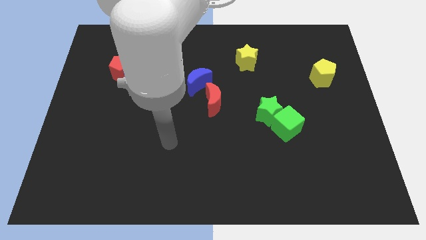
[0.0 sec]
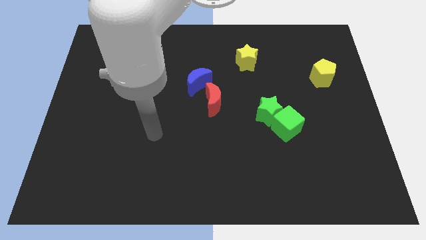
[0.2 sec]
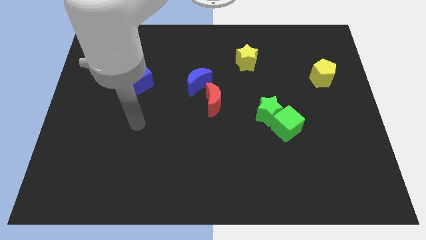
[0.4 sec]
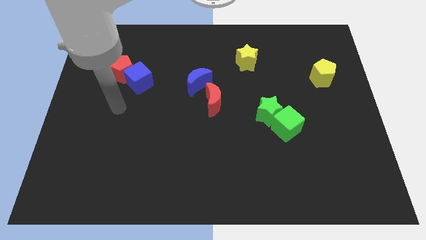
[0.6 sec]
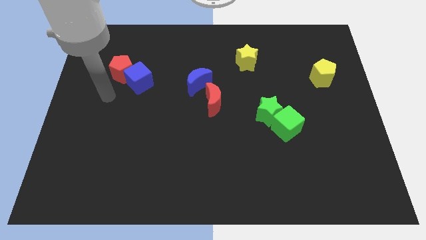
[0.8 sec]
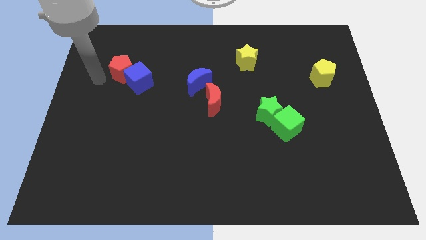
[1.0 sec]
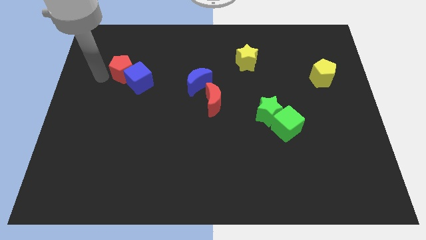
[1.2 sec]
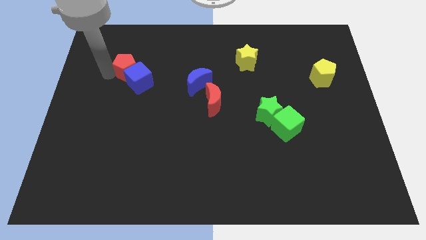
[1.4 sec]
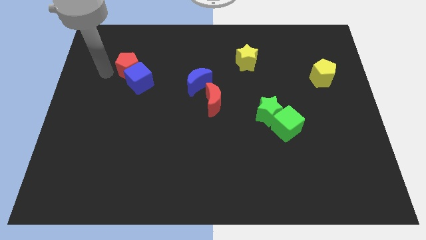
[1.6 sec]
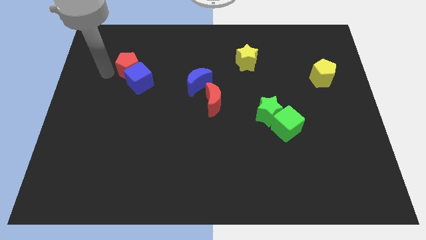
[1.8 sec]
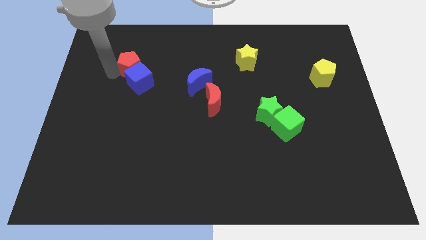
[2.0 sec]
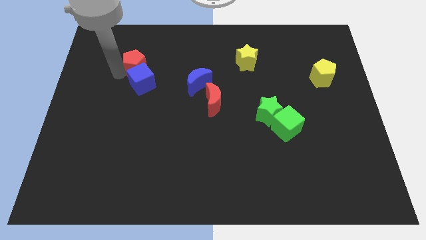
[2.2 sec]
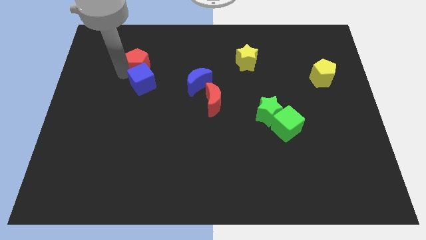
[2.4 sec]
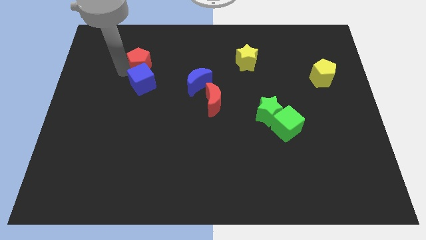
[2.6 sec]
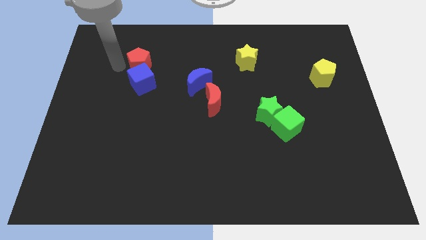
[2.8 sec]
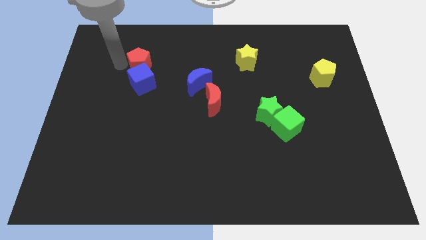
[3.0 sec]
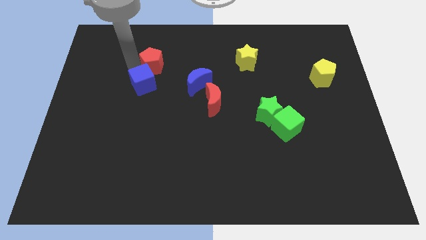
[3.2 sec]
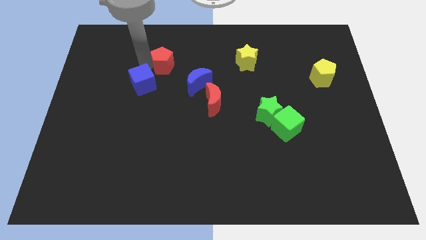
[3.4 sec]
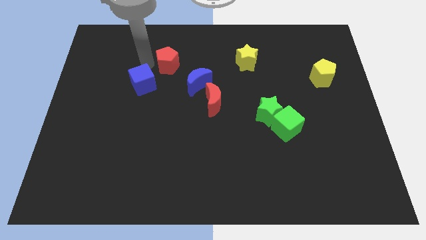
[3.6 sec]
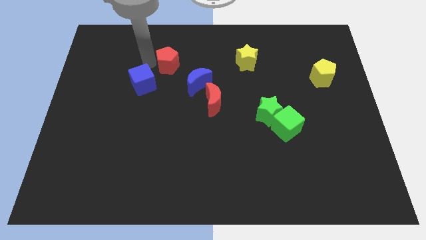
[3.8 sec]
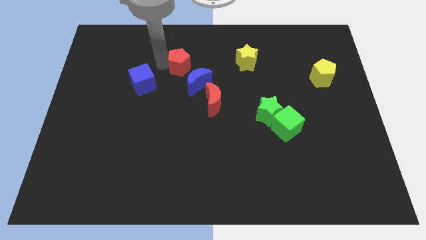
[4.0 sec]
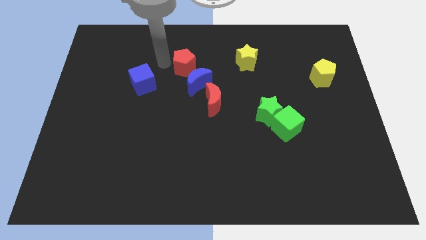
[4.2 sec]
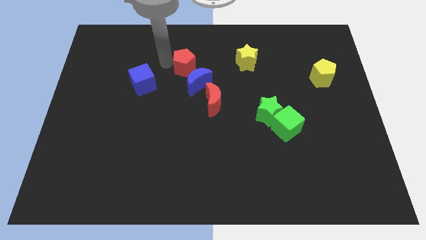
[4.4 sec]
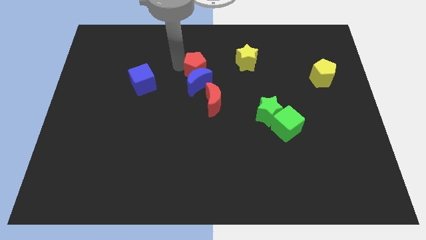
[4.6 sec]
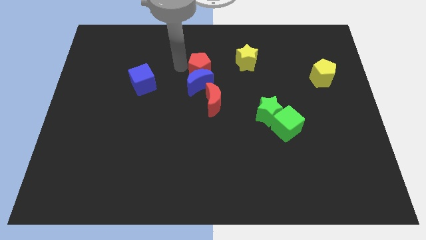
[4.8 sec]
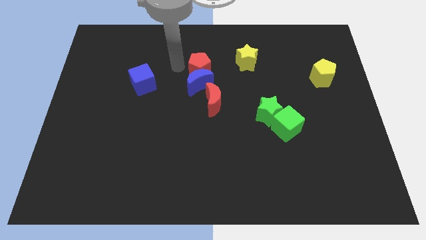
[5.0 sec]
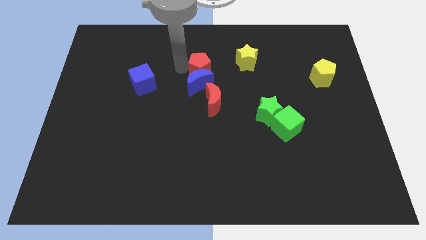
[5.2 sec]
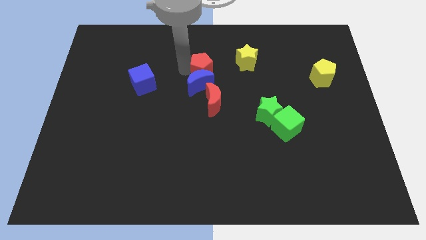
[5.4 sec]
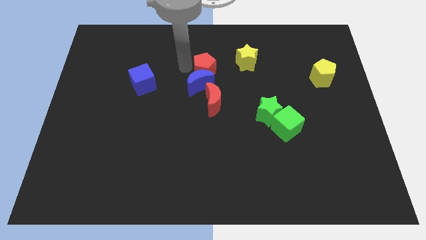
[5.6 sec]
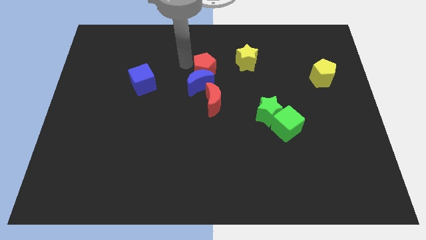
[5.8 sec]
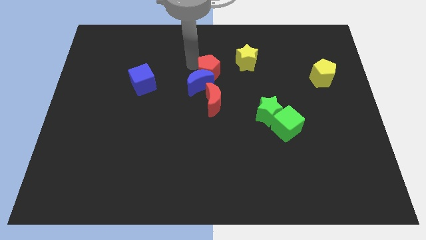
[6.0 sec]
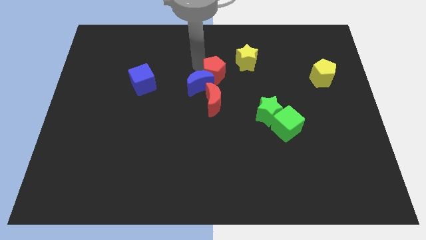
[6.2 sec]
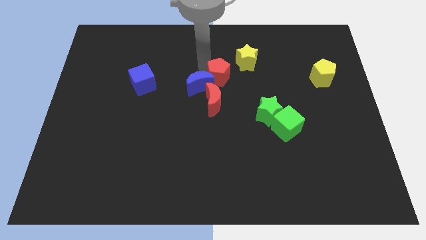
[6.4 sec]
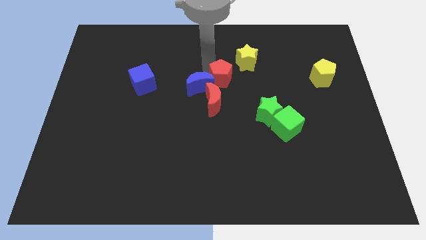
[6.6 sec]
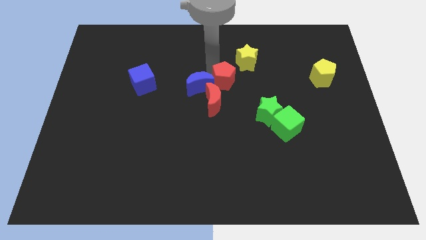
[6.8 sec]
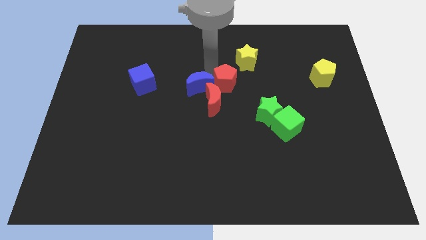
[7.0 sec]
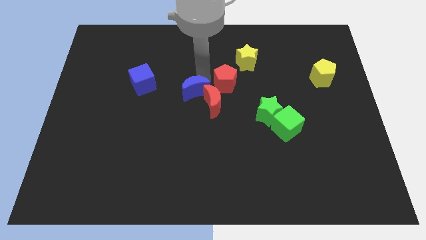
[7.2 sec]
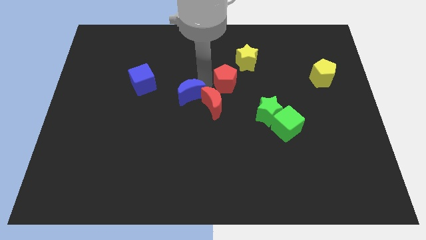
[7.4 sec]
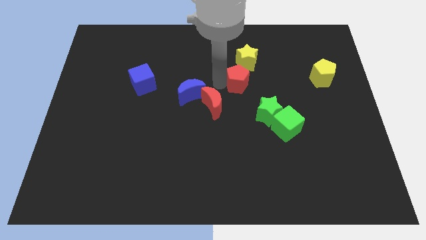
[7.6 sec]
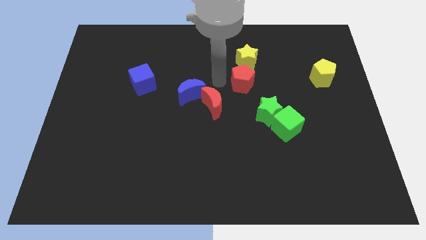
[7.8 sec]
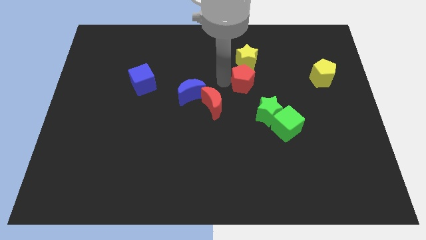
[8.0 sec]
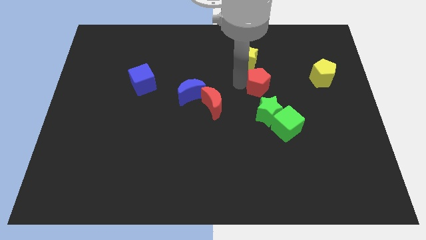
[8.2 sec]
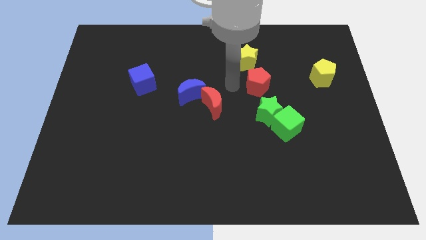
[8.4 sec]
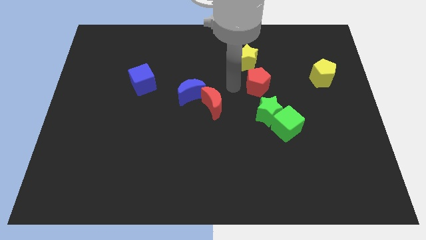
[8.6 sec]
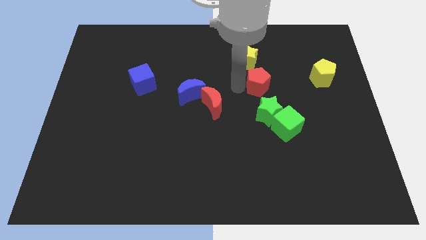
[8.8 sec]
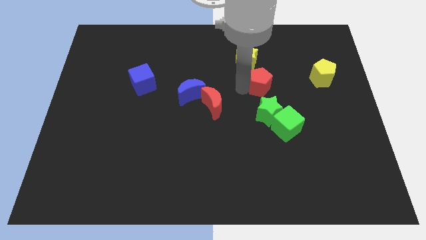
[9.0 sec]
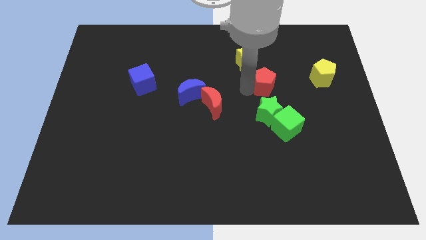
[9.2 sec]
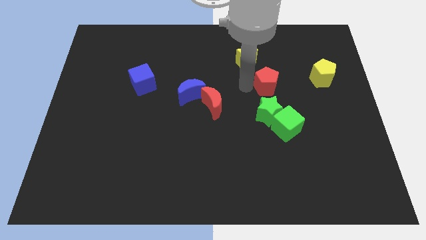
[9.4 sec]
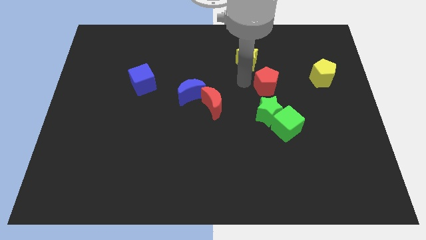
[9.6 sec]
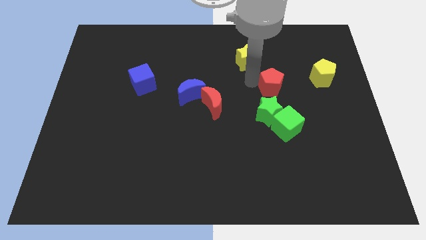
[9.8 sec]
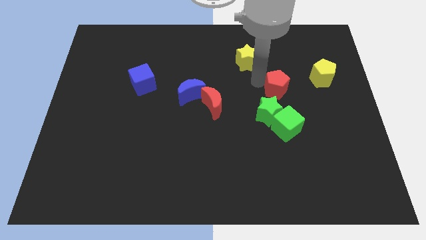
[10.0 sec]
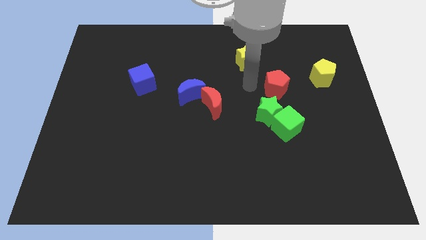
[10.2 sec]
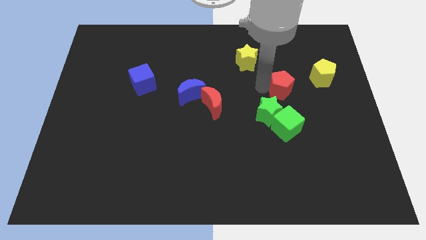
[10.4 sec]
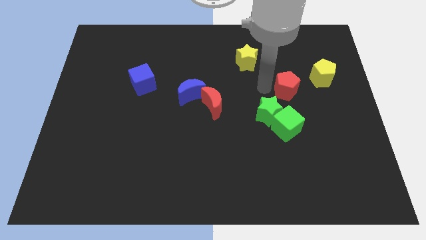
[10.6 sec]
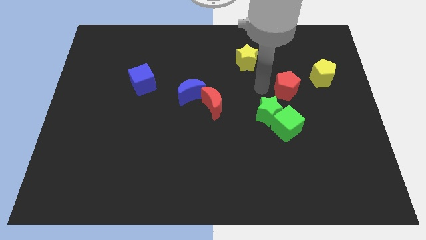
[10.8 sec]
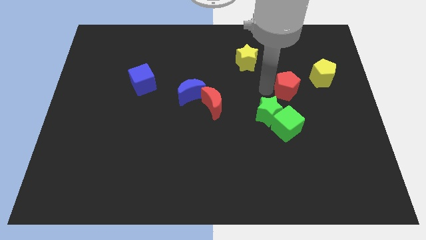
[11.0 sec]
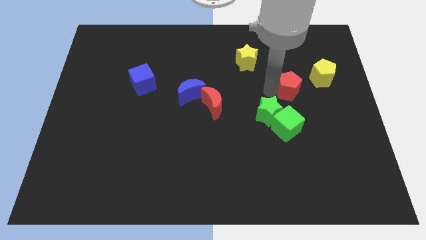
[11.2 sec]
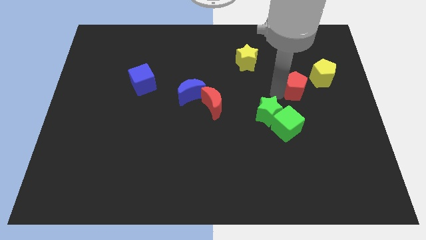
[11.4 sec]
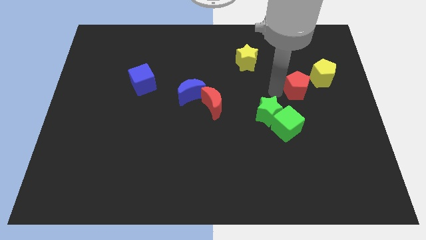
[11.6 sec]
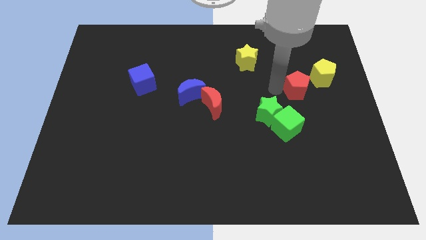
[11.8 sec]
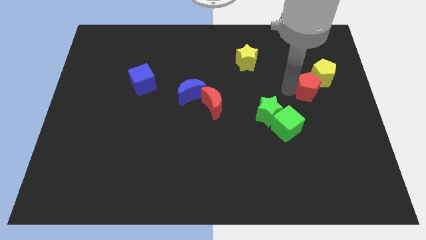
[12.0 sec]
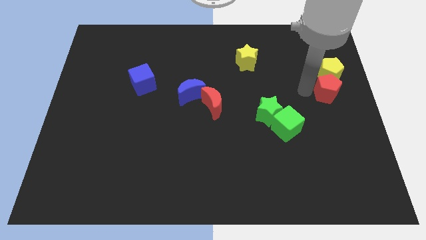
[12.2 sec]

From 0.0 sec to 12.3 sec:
push the red pentagon to the right side of the board

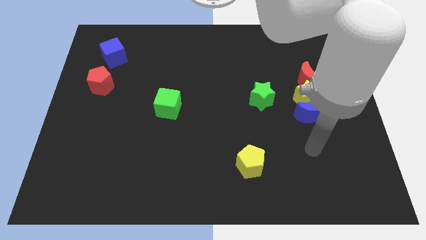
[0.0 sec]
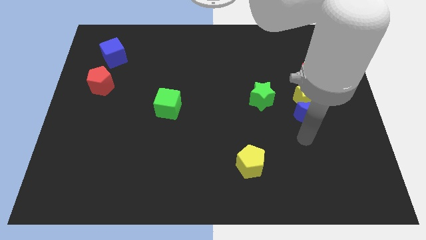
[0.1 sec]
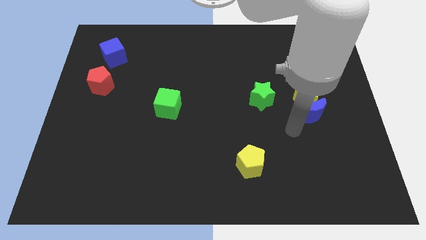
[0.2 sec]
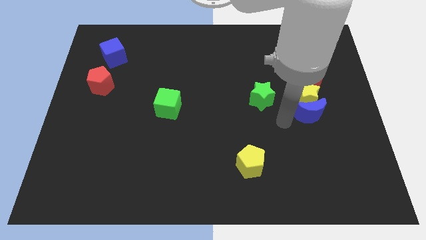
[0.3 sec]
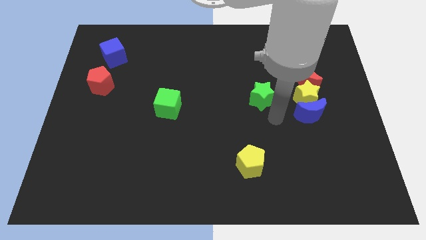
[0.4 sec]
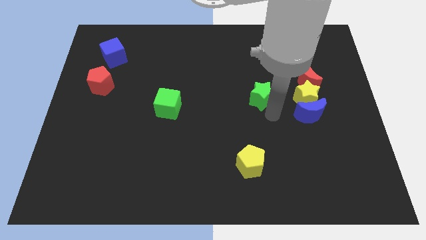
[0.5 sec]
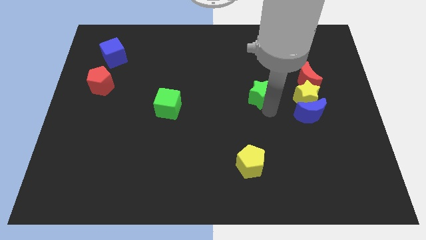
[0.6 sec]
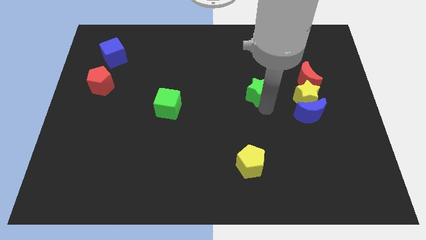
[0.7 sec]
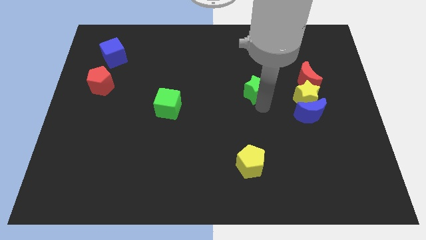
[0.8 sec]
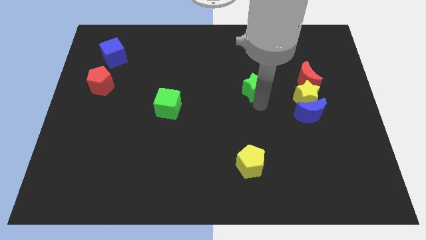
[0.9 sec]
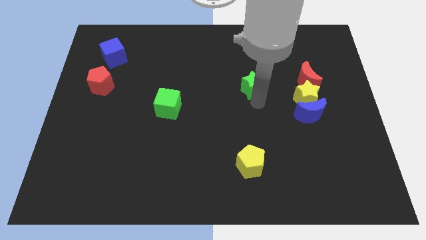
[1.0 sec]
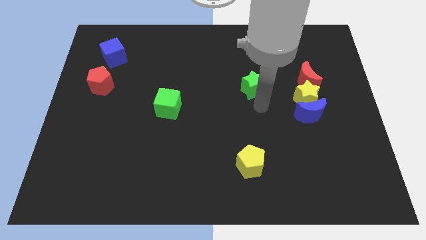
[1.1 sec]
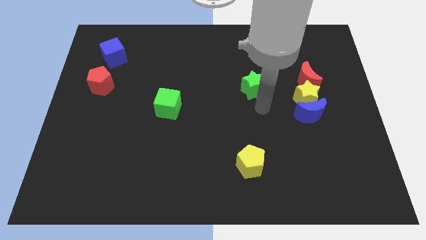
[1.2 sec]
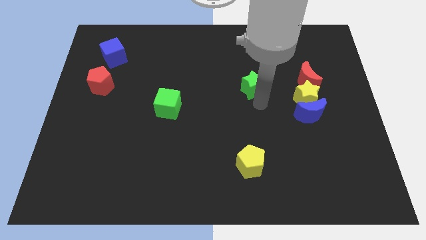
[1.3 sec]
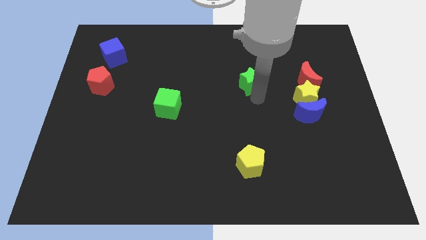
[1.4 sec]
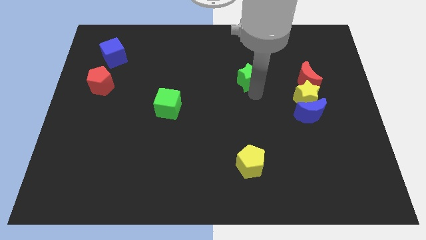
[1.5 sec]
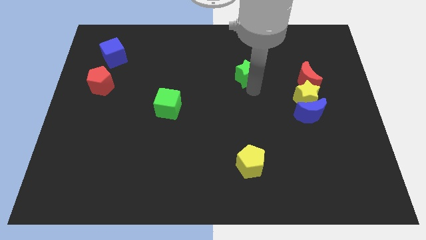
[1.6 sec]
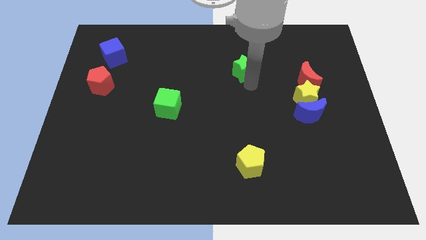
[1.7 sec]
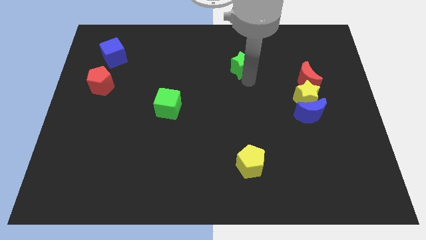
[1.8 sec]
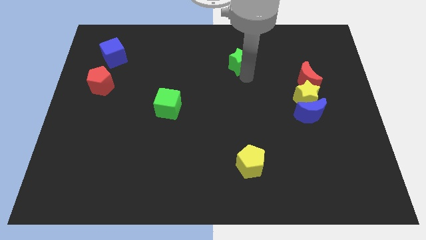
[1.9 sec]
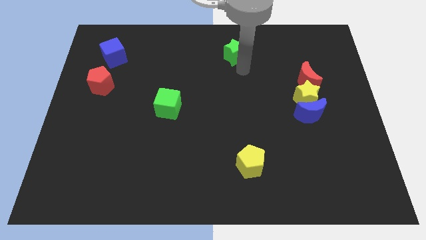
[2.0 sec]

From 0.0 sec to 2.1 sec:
move the green star to the top
